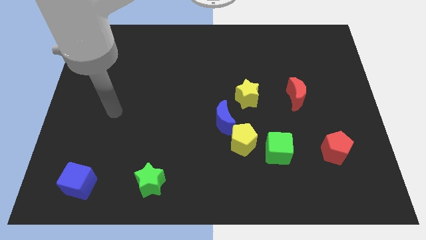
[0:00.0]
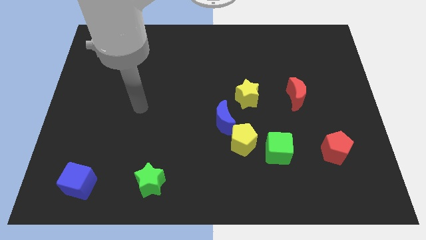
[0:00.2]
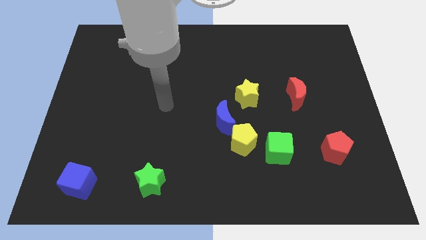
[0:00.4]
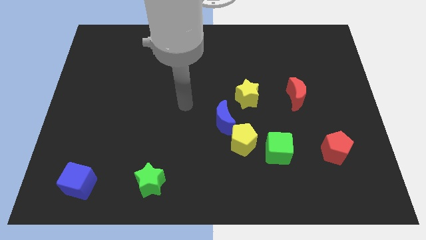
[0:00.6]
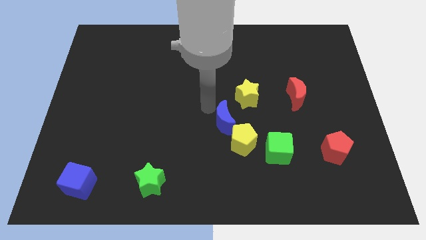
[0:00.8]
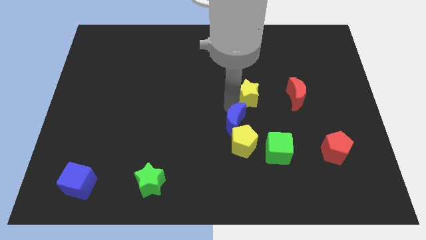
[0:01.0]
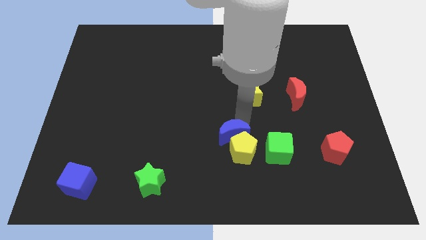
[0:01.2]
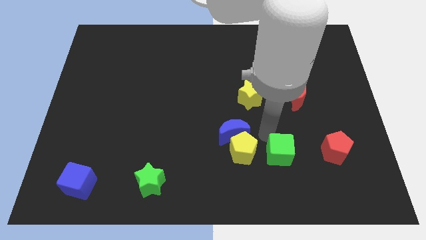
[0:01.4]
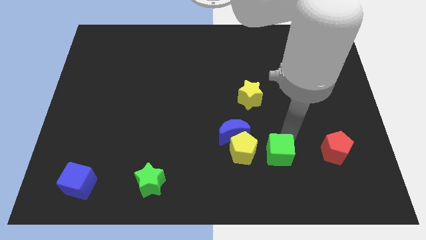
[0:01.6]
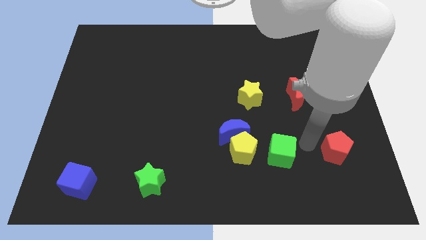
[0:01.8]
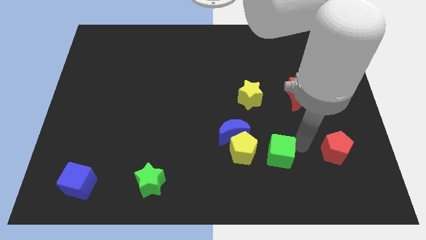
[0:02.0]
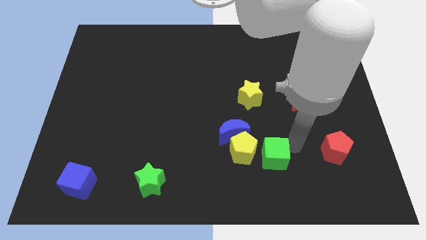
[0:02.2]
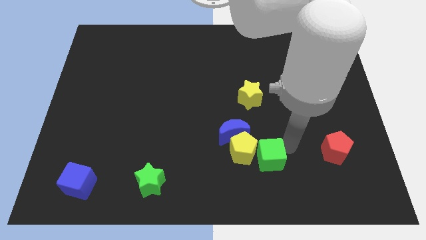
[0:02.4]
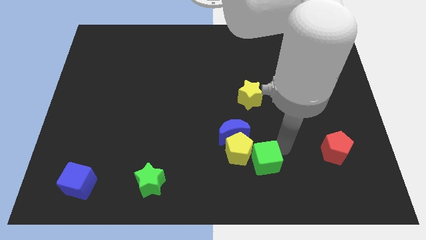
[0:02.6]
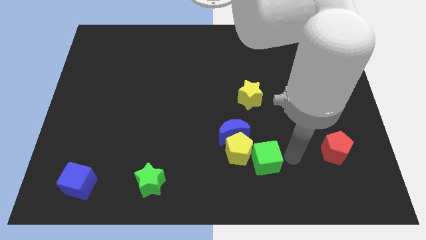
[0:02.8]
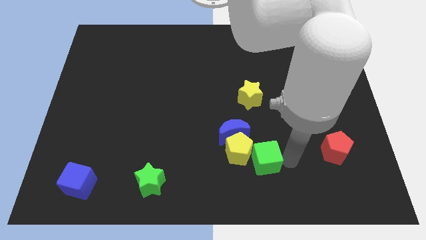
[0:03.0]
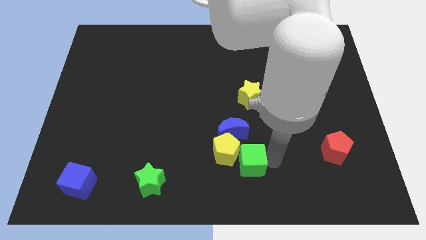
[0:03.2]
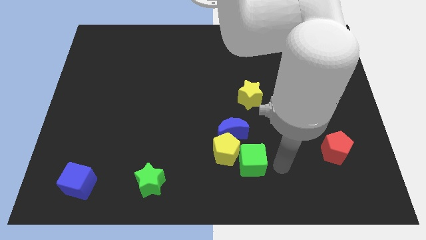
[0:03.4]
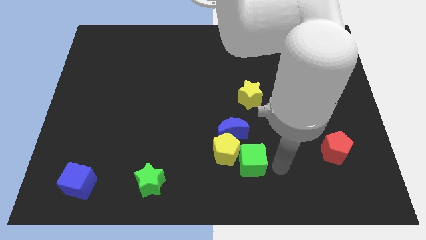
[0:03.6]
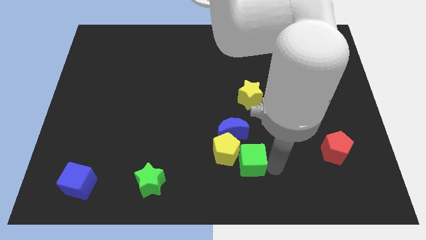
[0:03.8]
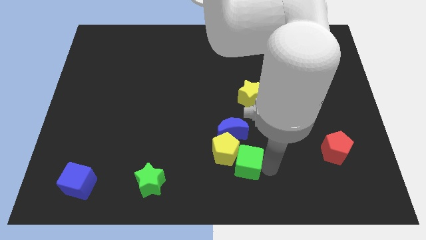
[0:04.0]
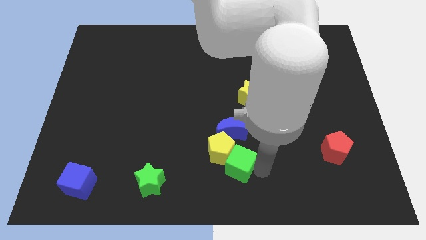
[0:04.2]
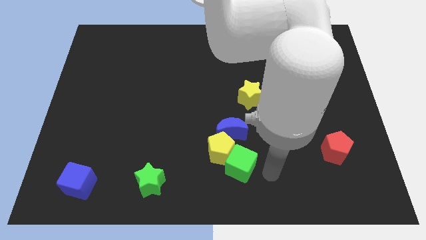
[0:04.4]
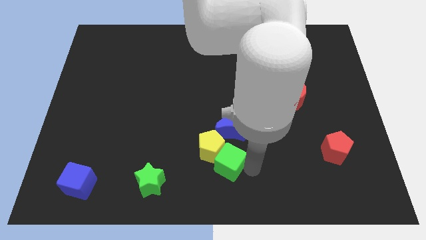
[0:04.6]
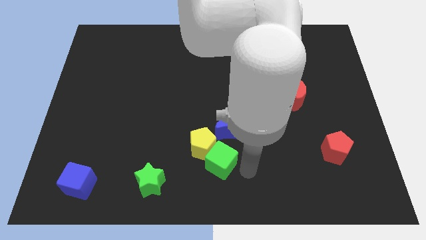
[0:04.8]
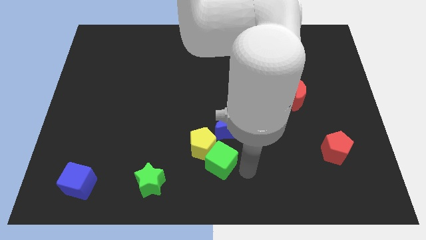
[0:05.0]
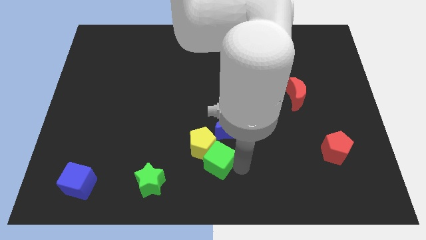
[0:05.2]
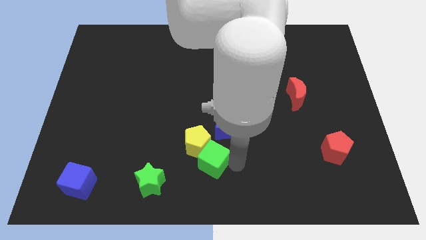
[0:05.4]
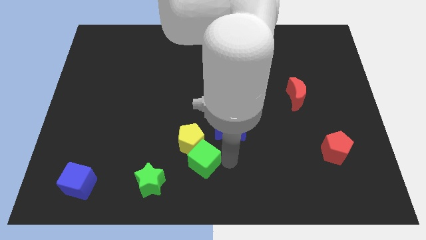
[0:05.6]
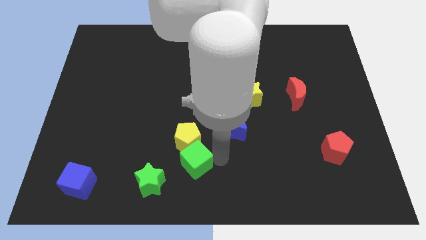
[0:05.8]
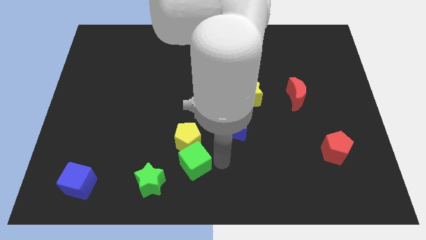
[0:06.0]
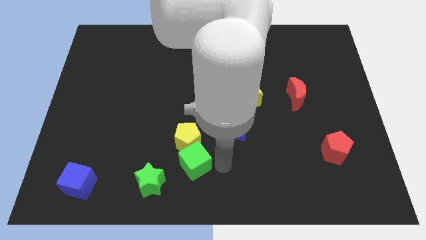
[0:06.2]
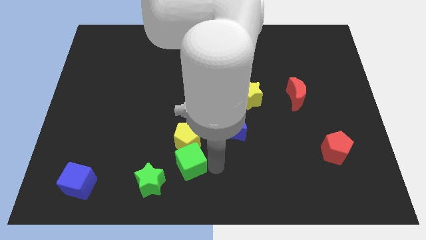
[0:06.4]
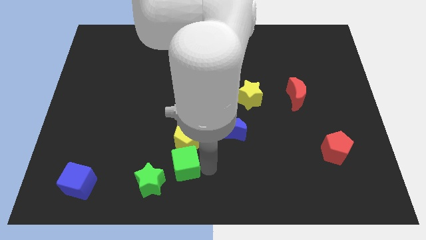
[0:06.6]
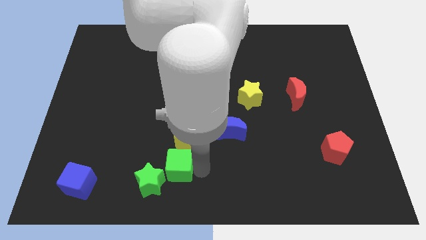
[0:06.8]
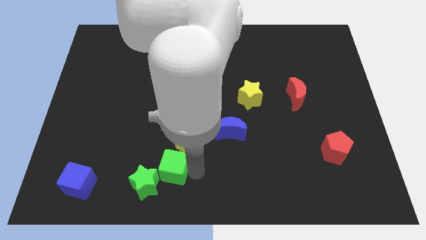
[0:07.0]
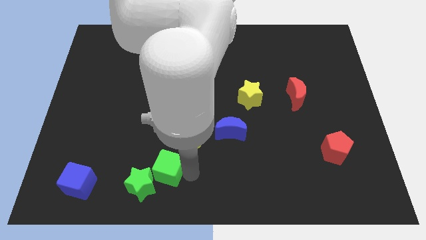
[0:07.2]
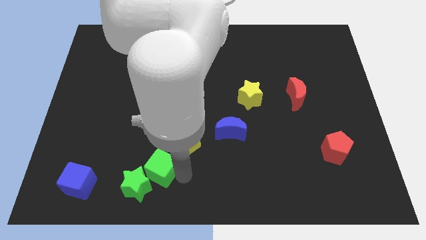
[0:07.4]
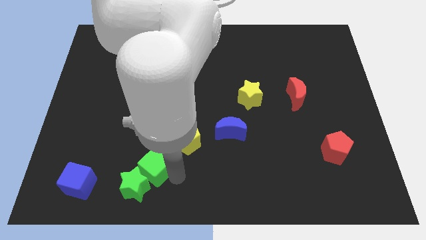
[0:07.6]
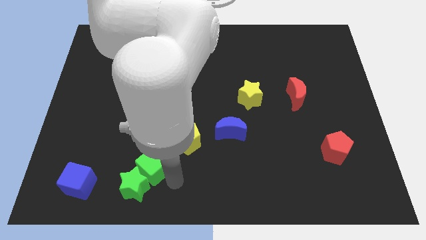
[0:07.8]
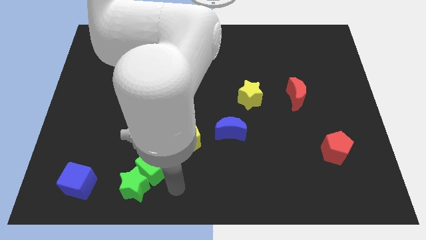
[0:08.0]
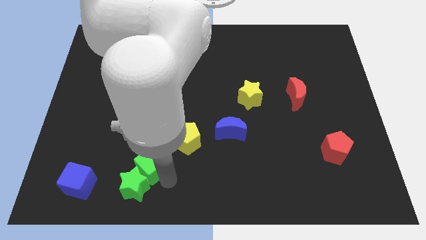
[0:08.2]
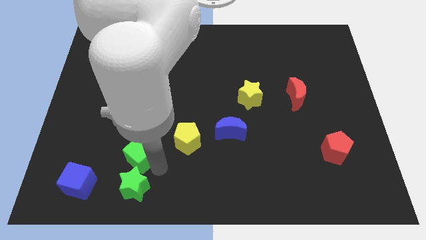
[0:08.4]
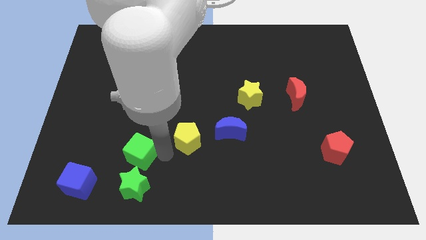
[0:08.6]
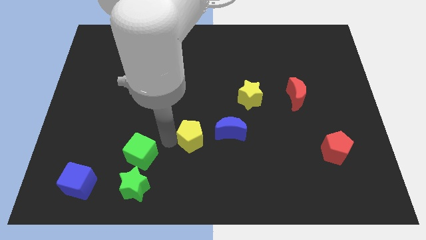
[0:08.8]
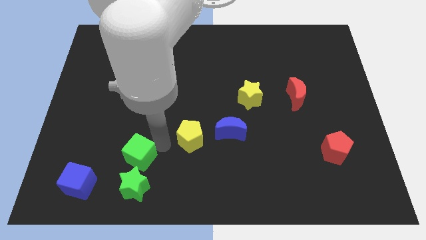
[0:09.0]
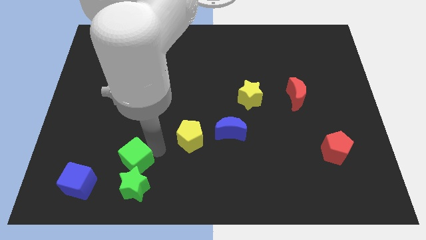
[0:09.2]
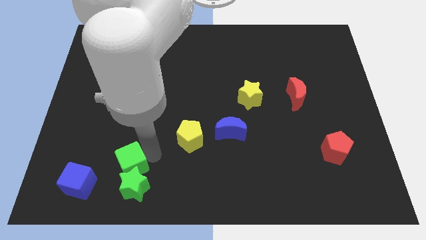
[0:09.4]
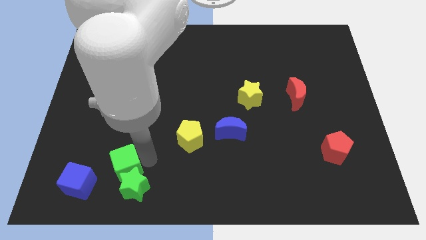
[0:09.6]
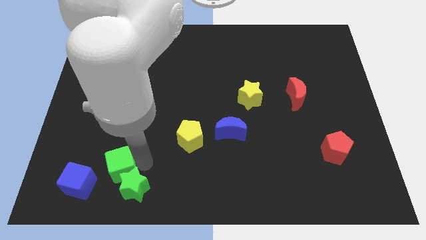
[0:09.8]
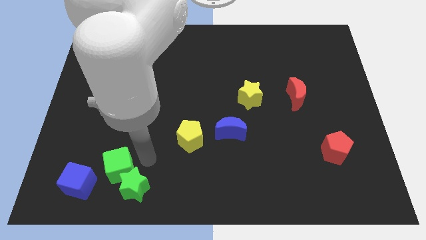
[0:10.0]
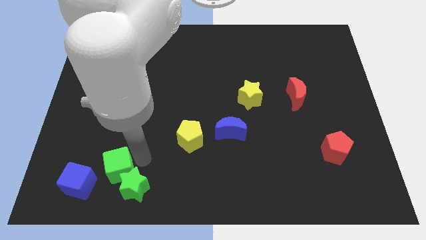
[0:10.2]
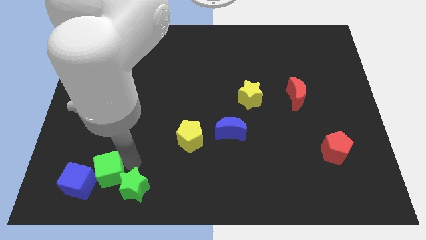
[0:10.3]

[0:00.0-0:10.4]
put the green cube to the blue cube
